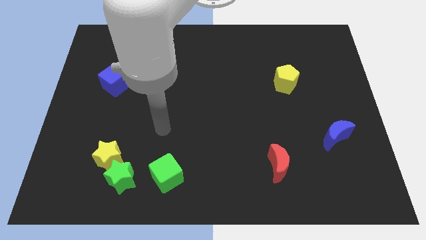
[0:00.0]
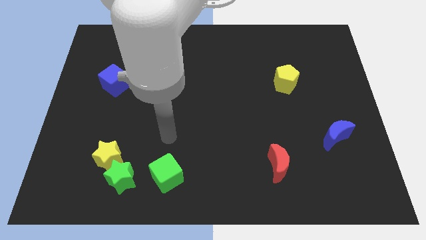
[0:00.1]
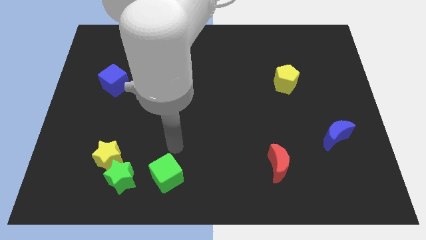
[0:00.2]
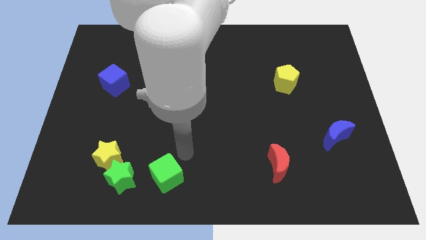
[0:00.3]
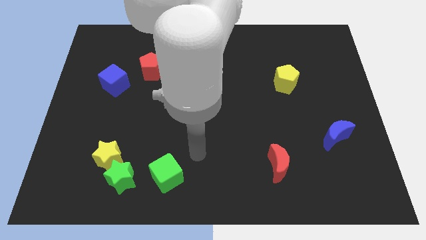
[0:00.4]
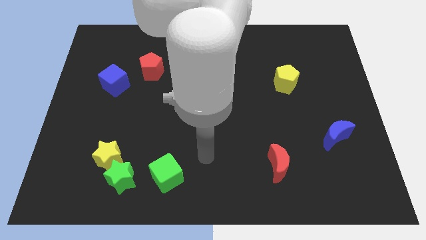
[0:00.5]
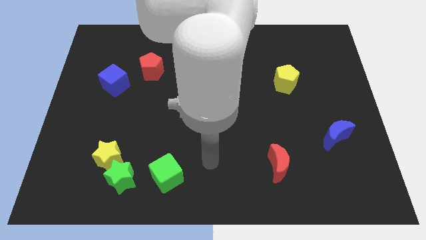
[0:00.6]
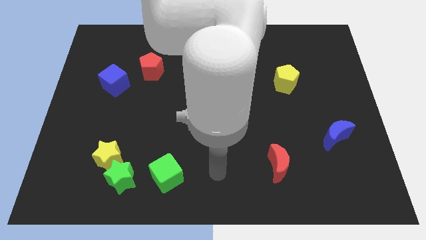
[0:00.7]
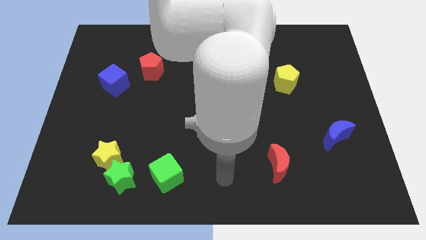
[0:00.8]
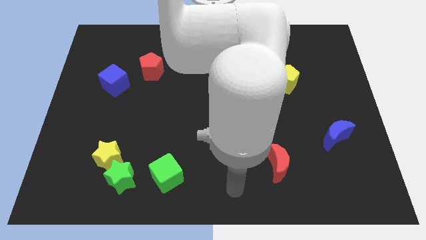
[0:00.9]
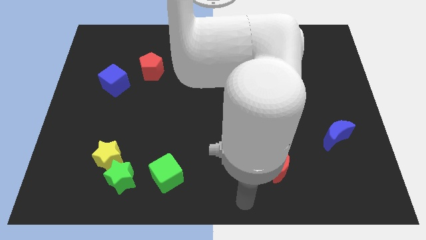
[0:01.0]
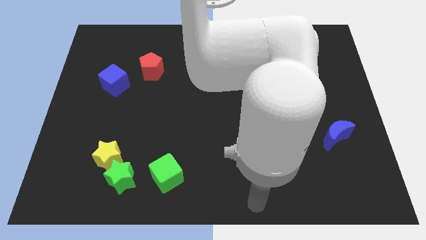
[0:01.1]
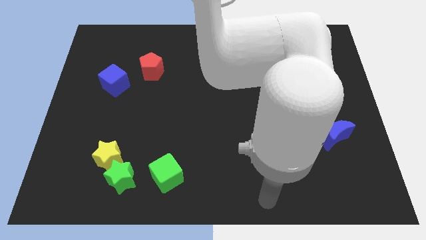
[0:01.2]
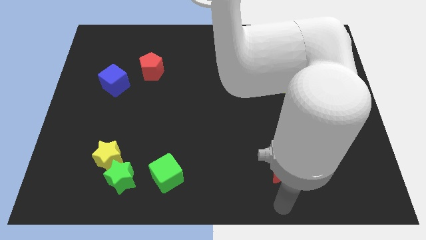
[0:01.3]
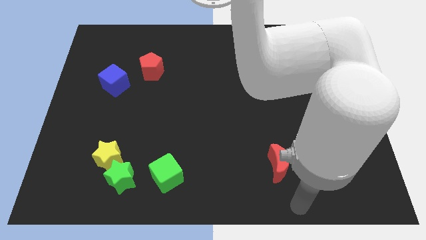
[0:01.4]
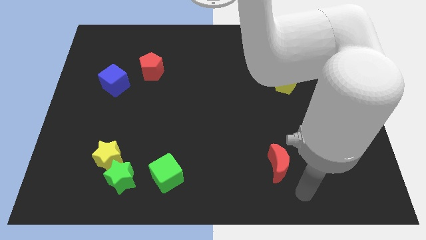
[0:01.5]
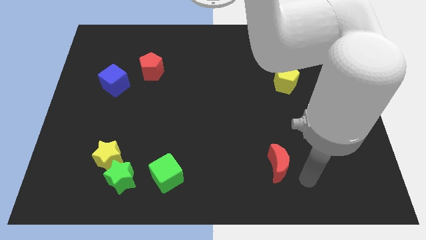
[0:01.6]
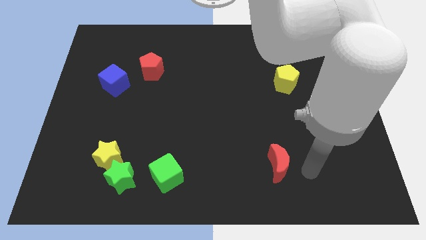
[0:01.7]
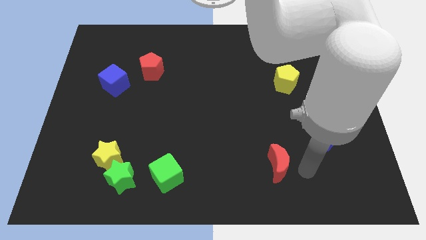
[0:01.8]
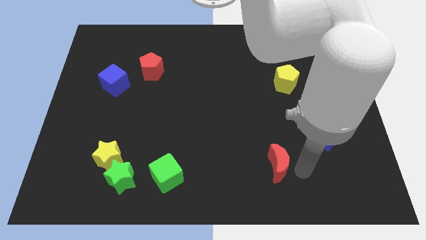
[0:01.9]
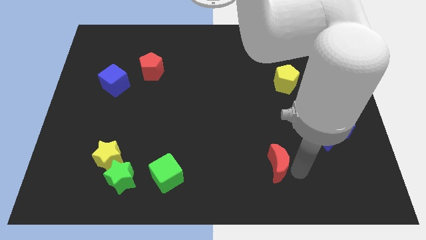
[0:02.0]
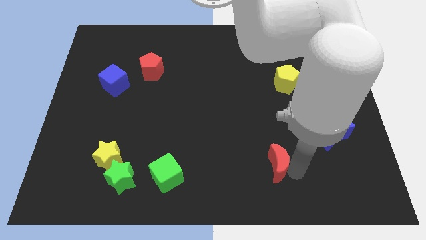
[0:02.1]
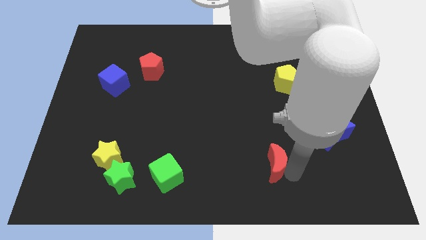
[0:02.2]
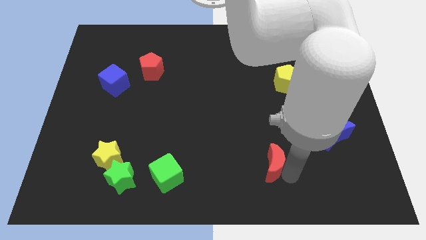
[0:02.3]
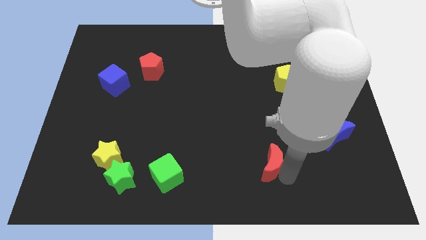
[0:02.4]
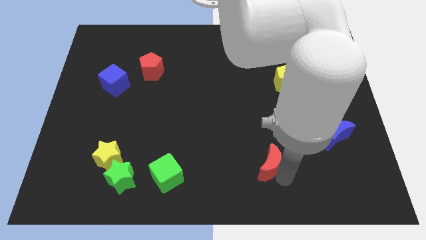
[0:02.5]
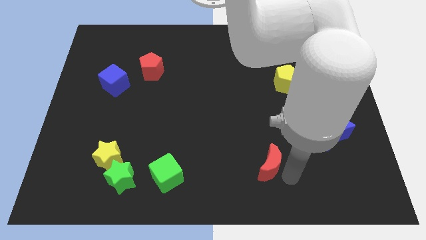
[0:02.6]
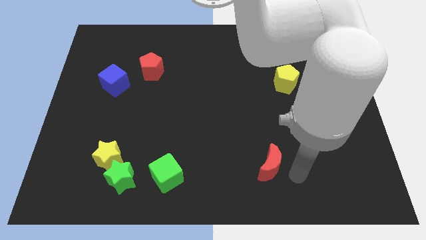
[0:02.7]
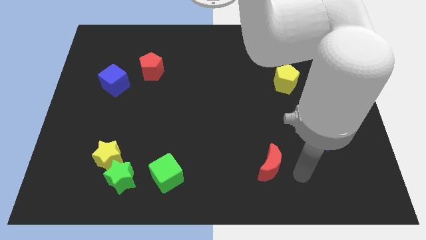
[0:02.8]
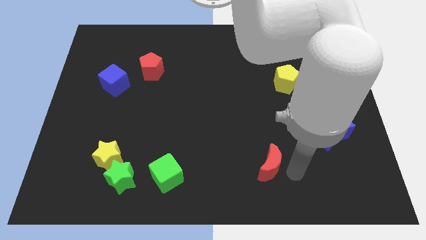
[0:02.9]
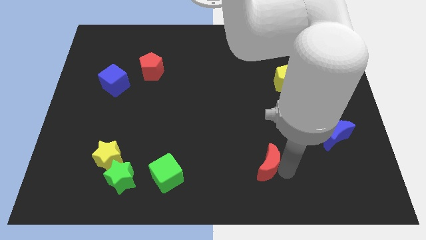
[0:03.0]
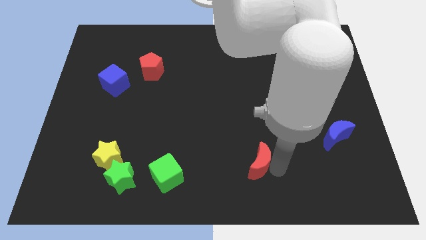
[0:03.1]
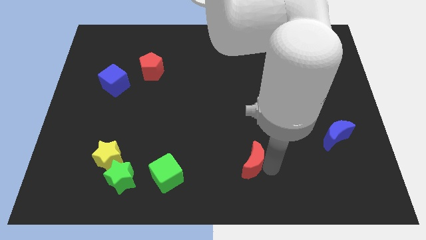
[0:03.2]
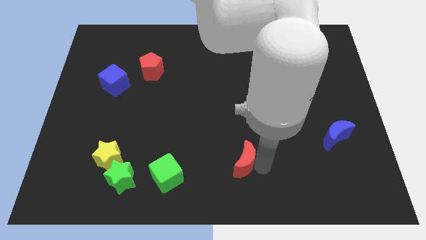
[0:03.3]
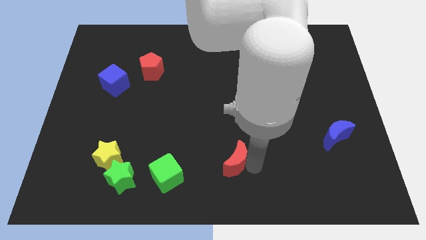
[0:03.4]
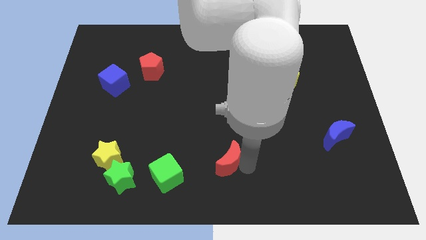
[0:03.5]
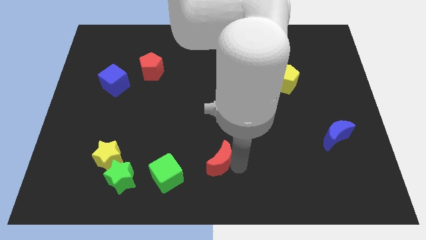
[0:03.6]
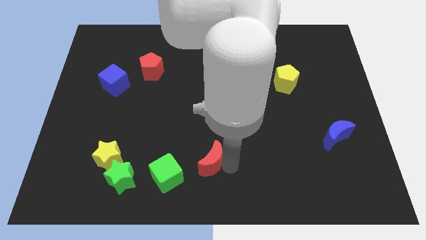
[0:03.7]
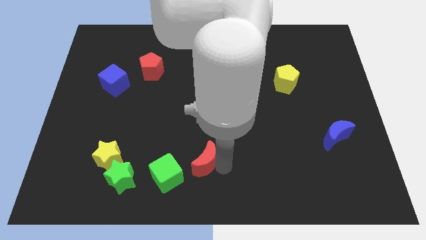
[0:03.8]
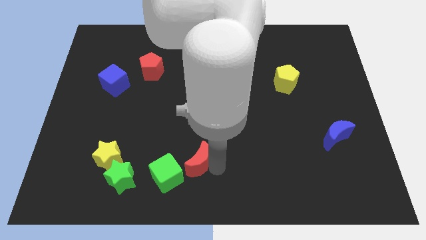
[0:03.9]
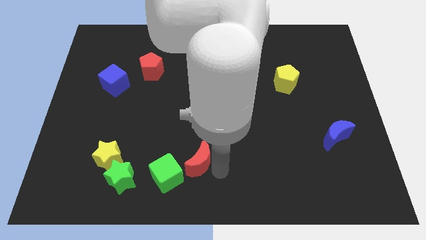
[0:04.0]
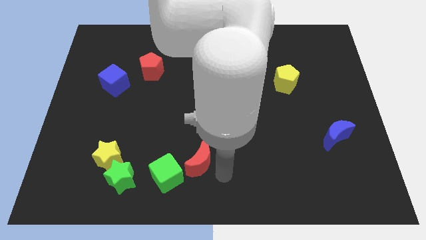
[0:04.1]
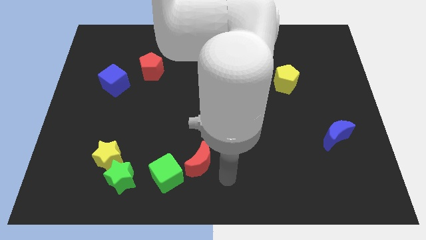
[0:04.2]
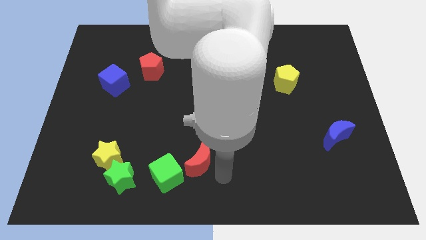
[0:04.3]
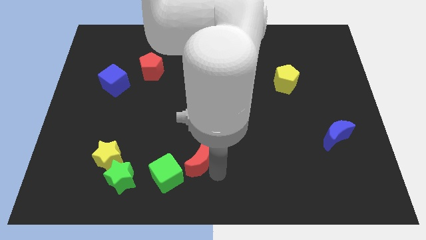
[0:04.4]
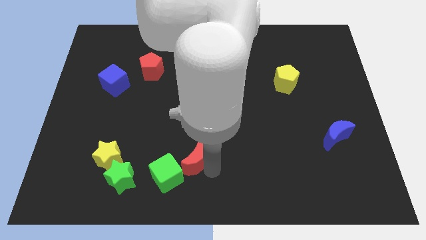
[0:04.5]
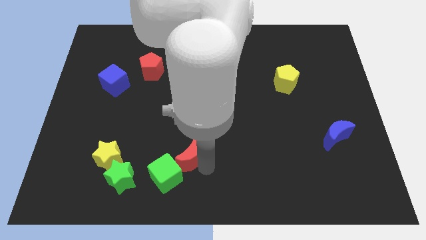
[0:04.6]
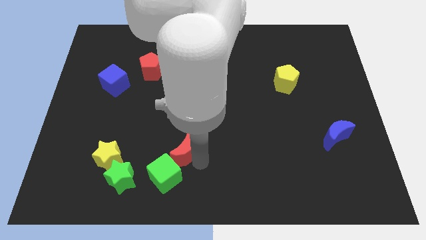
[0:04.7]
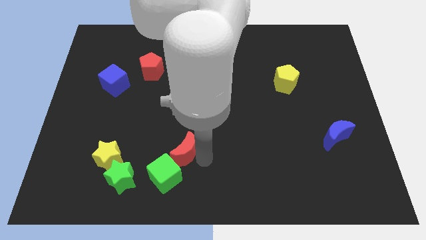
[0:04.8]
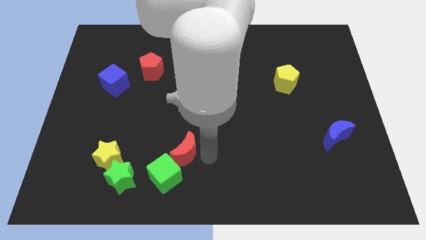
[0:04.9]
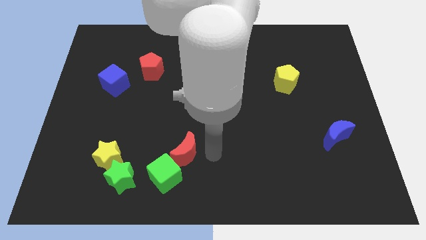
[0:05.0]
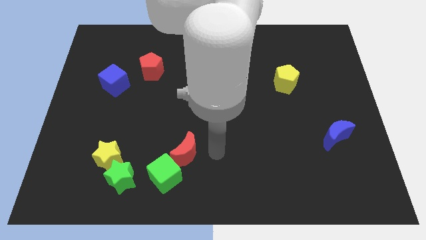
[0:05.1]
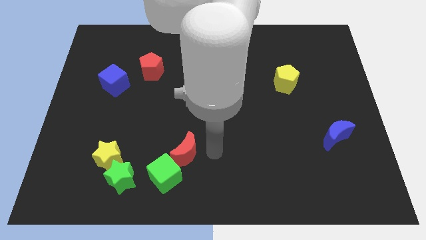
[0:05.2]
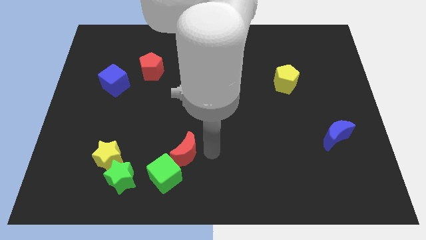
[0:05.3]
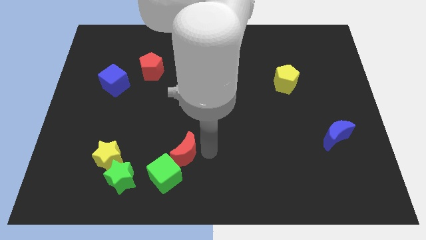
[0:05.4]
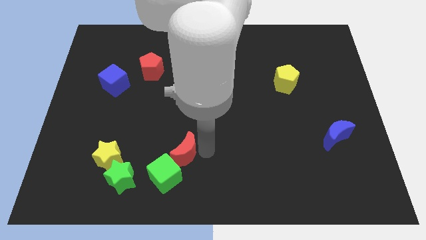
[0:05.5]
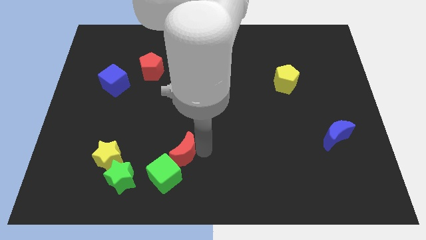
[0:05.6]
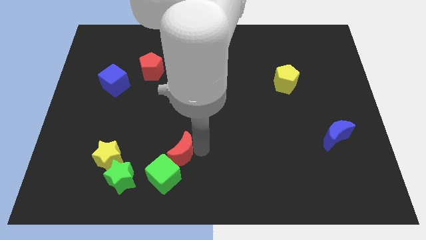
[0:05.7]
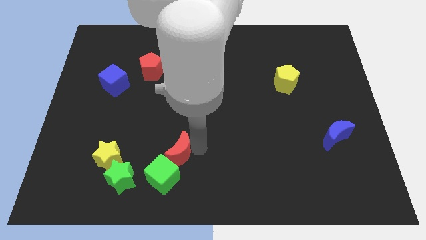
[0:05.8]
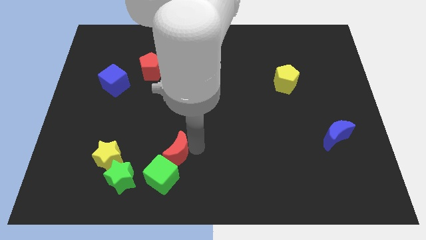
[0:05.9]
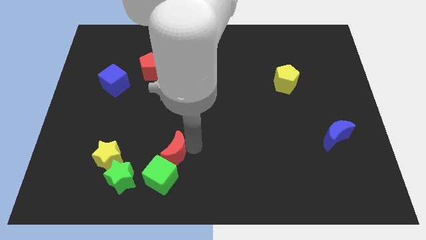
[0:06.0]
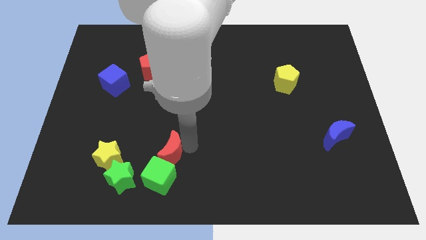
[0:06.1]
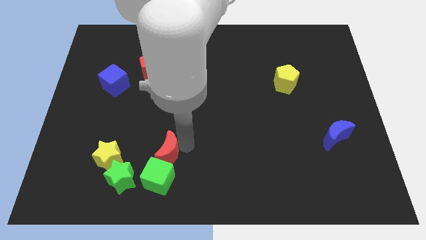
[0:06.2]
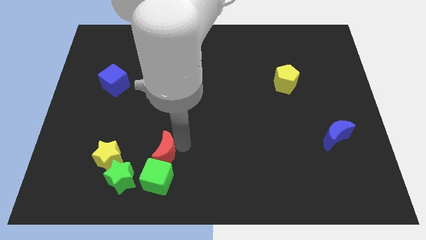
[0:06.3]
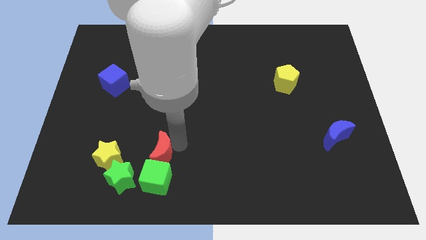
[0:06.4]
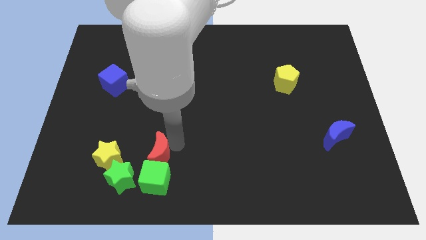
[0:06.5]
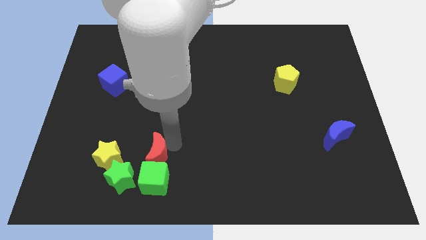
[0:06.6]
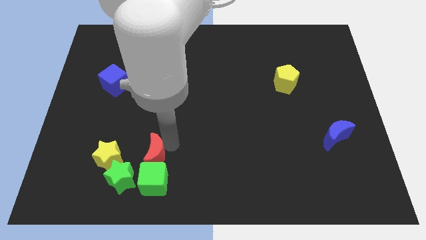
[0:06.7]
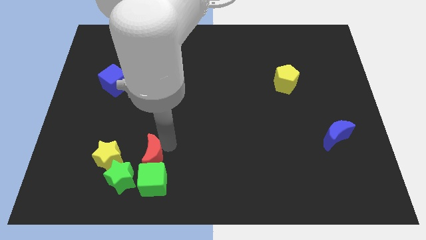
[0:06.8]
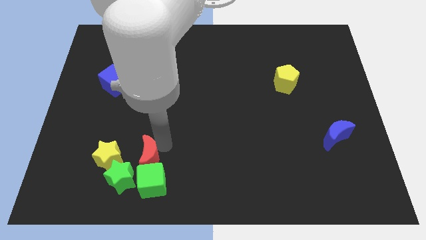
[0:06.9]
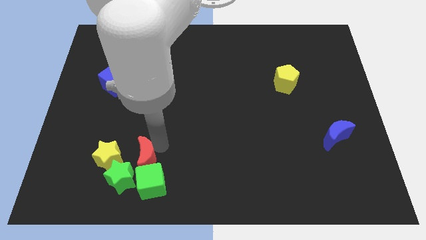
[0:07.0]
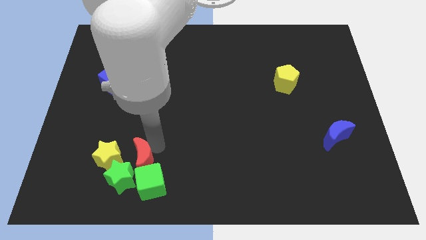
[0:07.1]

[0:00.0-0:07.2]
push the red moon close to the green star
